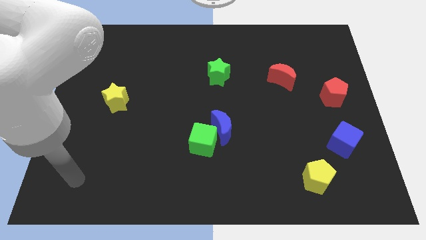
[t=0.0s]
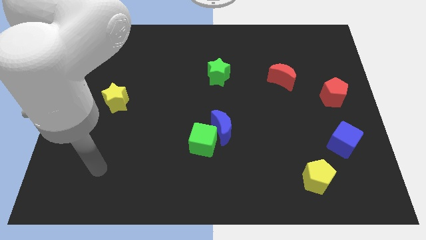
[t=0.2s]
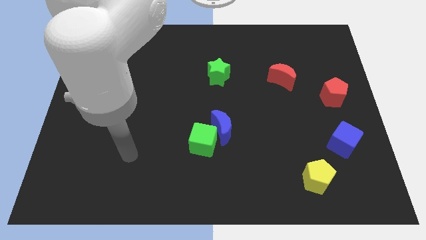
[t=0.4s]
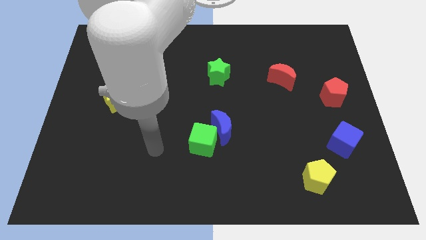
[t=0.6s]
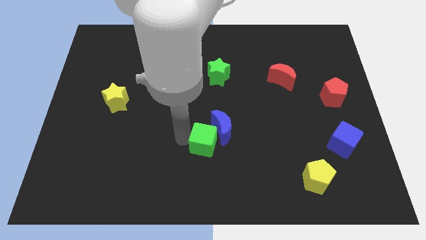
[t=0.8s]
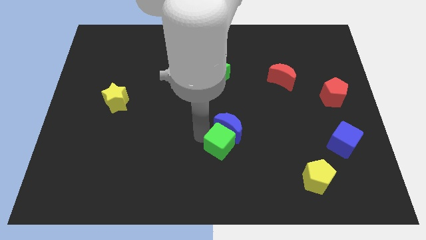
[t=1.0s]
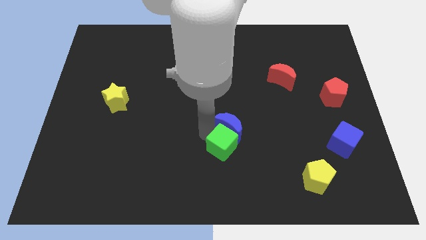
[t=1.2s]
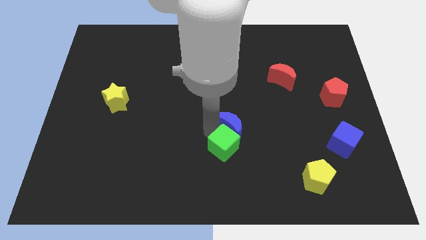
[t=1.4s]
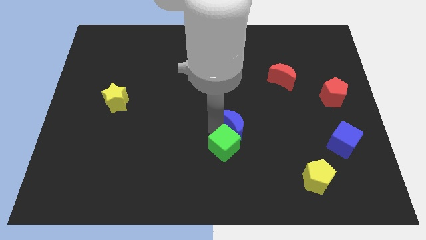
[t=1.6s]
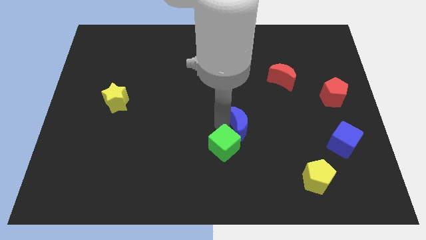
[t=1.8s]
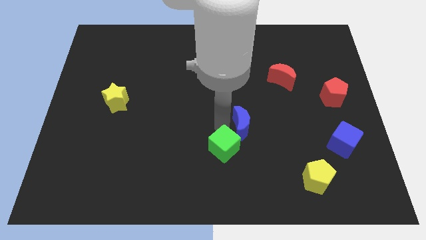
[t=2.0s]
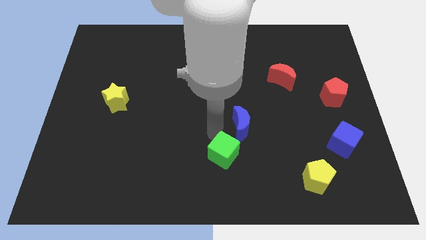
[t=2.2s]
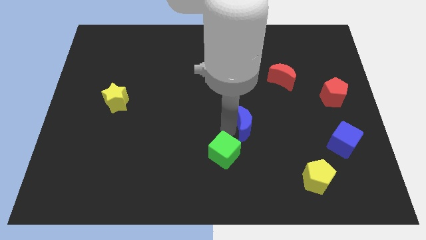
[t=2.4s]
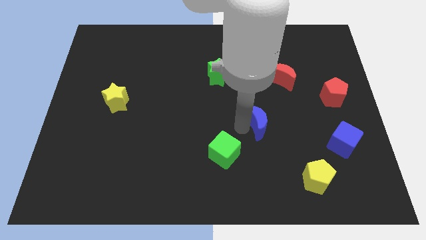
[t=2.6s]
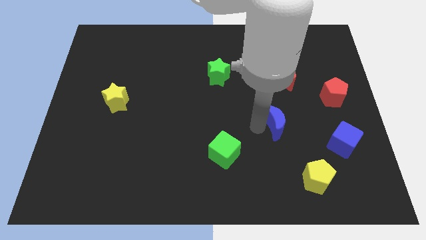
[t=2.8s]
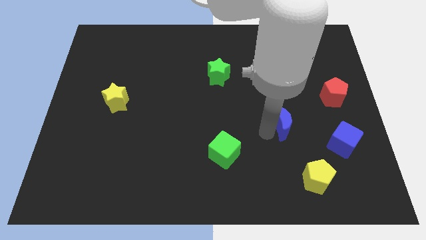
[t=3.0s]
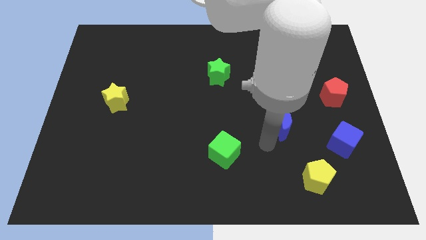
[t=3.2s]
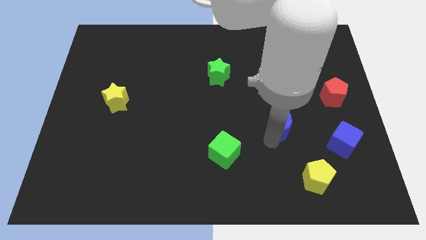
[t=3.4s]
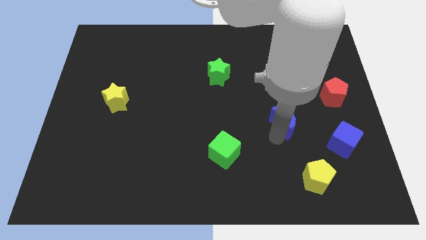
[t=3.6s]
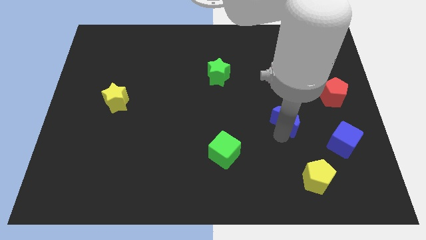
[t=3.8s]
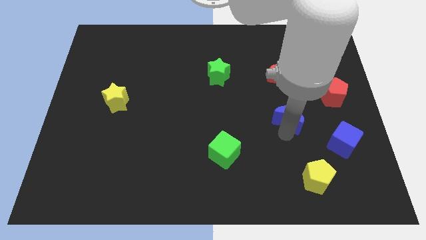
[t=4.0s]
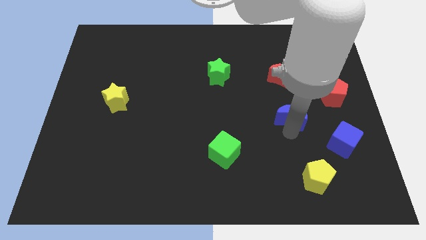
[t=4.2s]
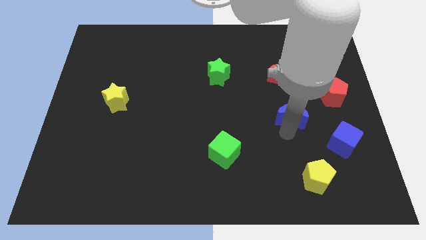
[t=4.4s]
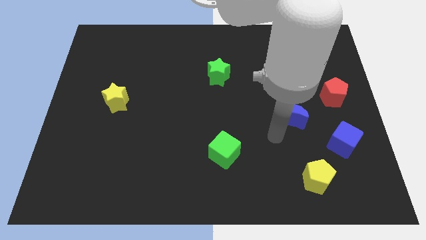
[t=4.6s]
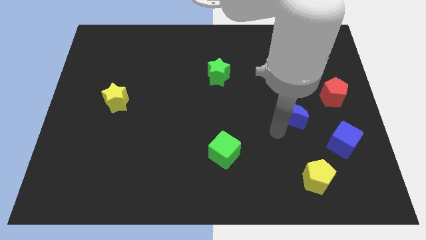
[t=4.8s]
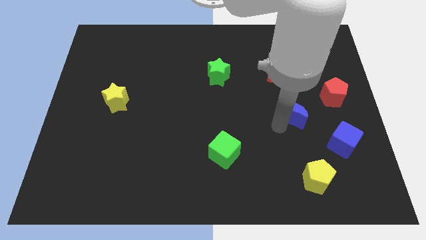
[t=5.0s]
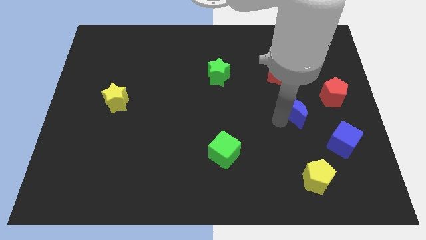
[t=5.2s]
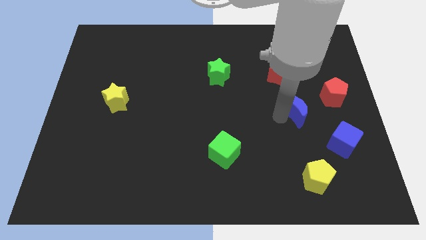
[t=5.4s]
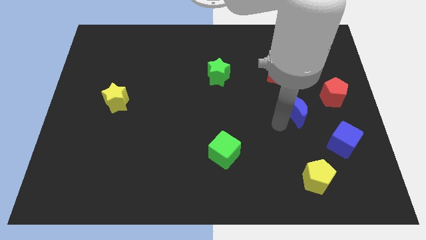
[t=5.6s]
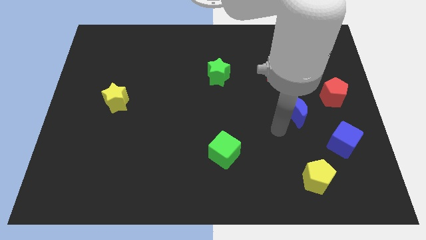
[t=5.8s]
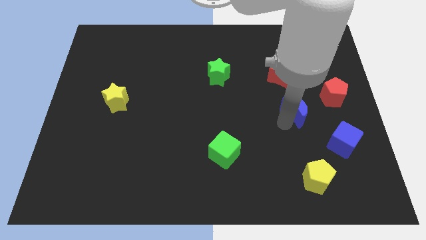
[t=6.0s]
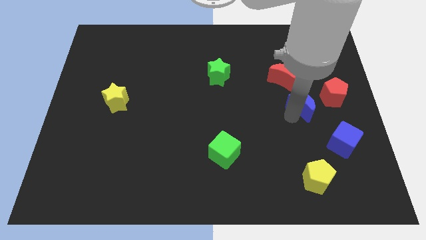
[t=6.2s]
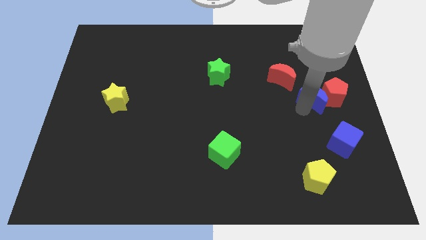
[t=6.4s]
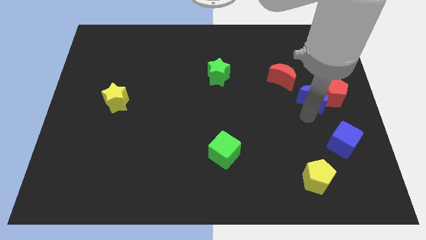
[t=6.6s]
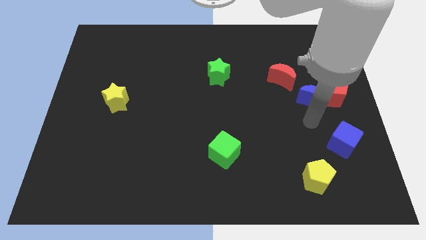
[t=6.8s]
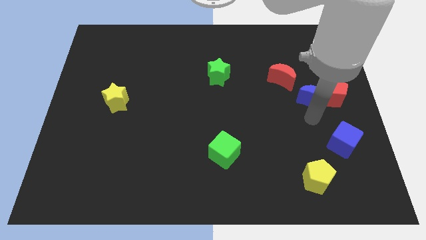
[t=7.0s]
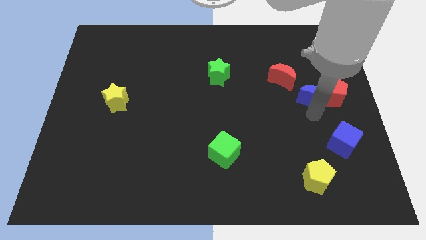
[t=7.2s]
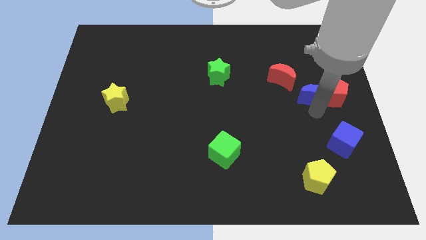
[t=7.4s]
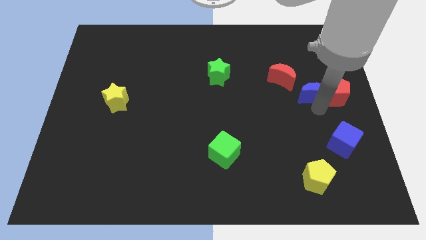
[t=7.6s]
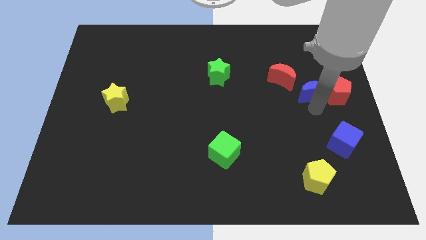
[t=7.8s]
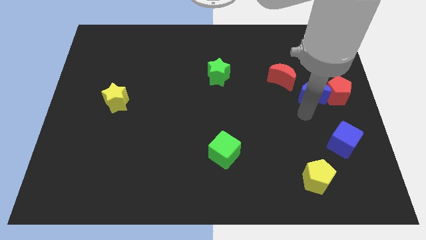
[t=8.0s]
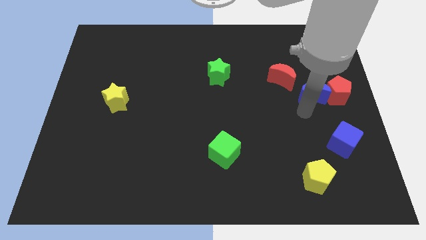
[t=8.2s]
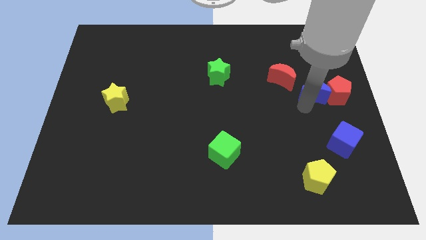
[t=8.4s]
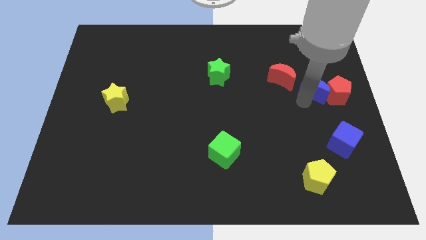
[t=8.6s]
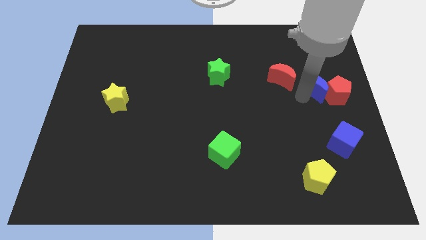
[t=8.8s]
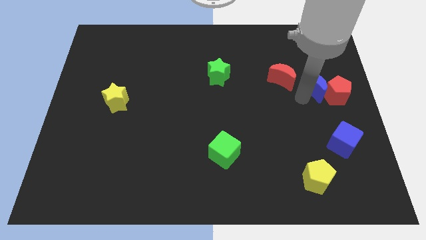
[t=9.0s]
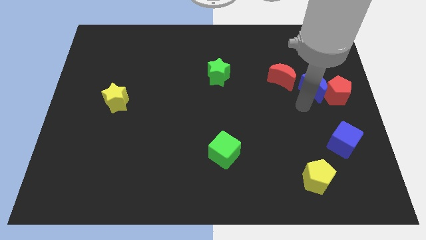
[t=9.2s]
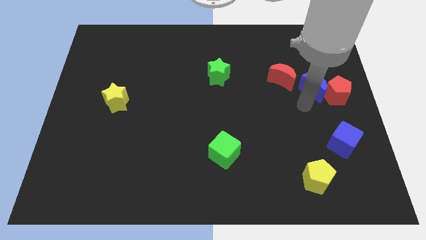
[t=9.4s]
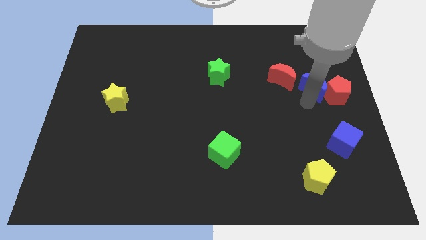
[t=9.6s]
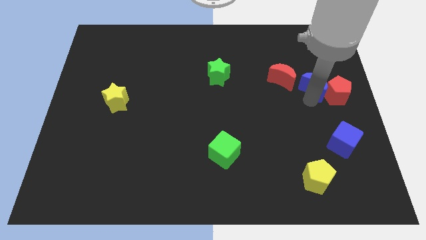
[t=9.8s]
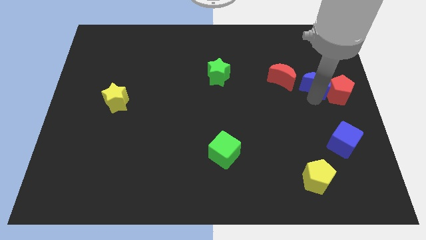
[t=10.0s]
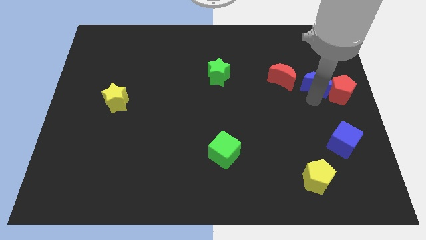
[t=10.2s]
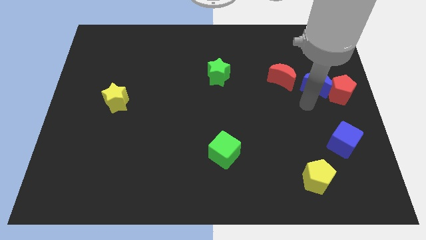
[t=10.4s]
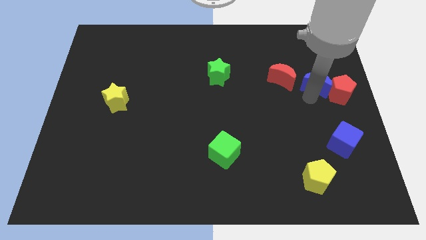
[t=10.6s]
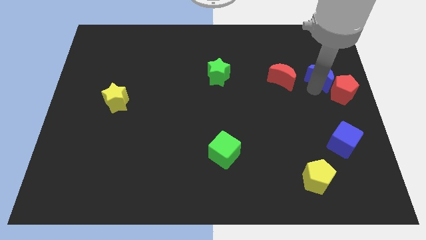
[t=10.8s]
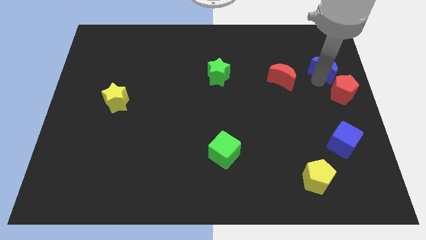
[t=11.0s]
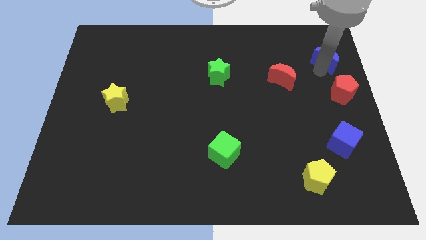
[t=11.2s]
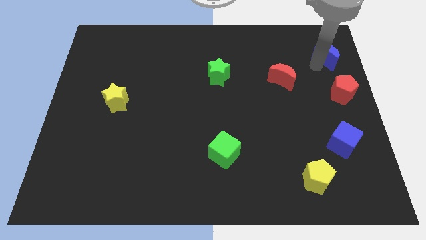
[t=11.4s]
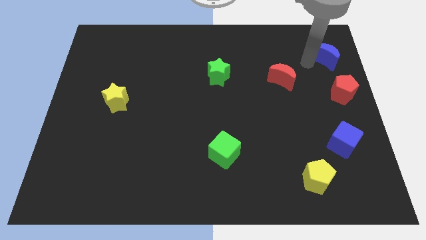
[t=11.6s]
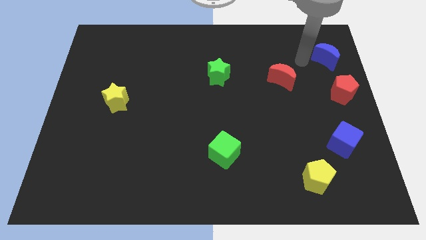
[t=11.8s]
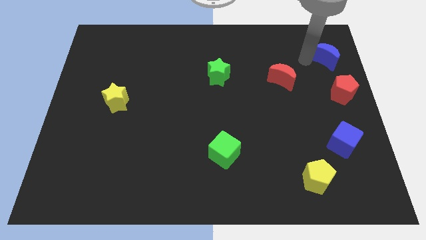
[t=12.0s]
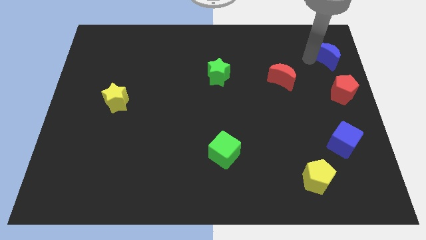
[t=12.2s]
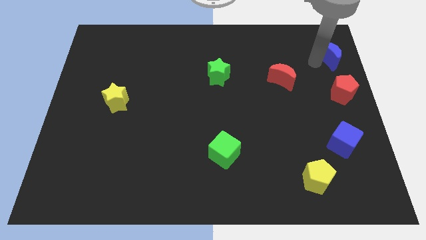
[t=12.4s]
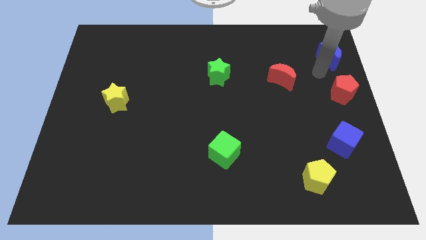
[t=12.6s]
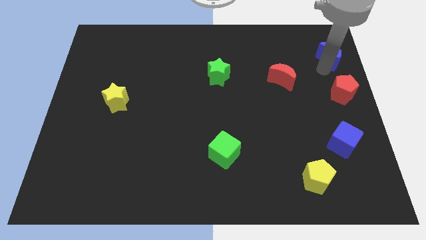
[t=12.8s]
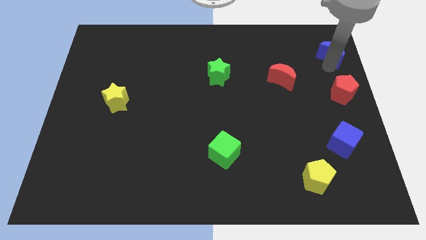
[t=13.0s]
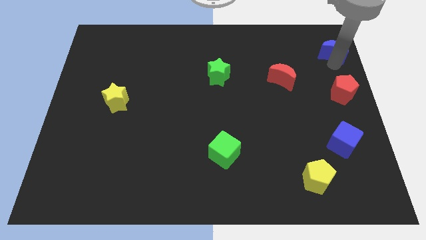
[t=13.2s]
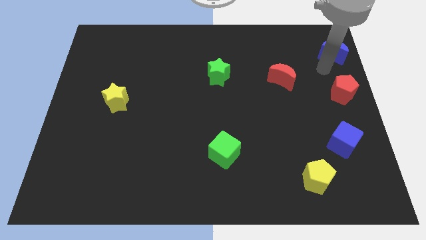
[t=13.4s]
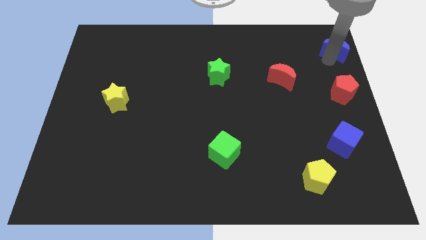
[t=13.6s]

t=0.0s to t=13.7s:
push the blue moon to the top right of the board
